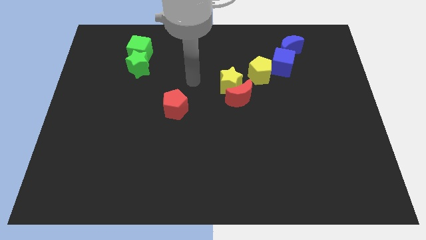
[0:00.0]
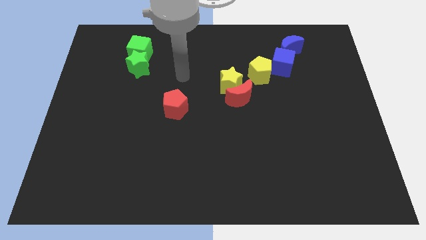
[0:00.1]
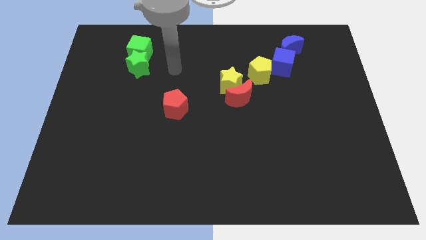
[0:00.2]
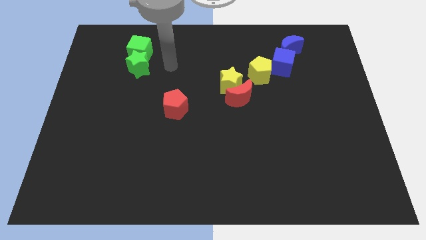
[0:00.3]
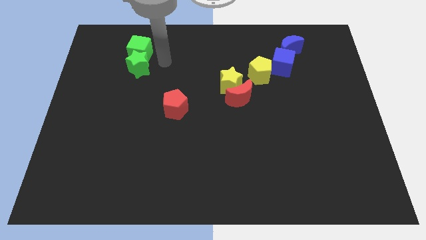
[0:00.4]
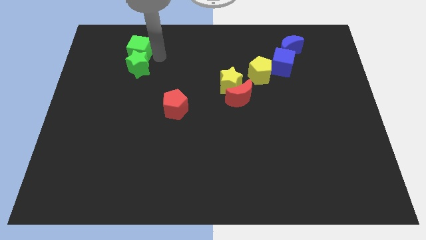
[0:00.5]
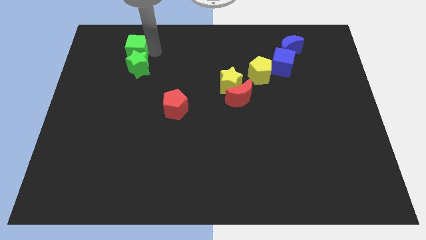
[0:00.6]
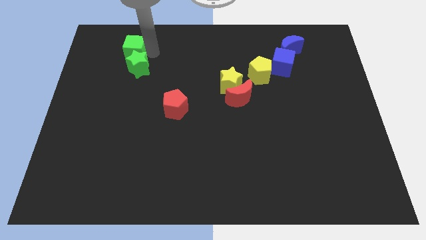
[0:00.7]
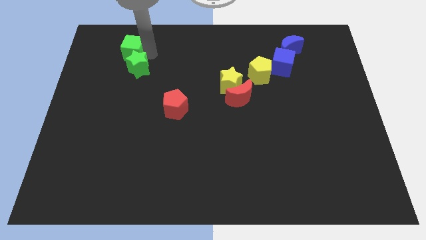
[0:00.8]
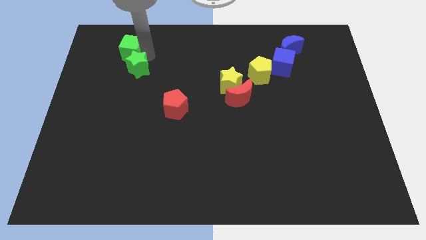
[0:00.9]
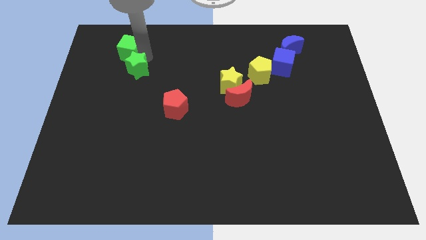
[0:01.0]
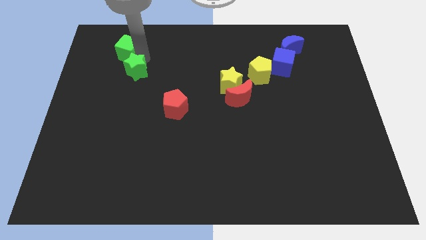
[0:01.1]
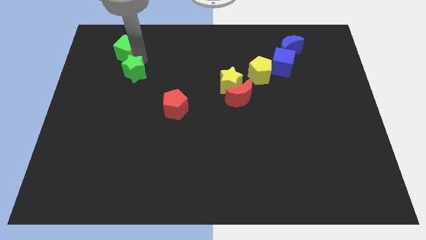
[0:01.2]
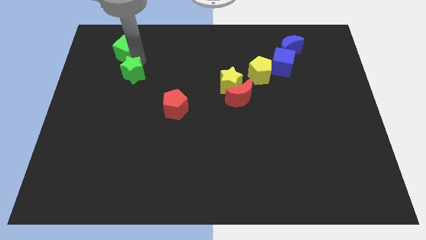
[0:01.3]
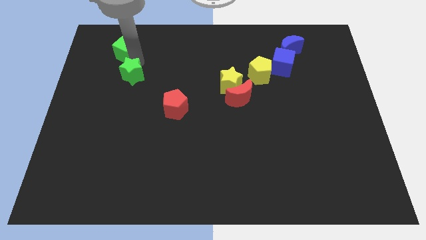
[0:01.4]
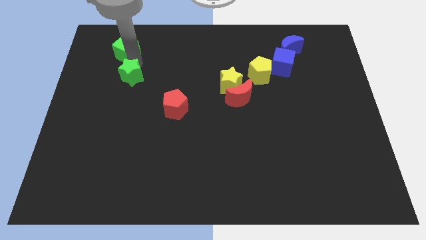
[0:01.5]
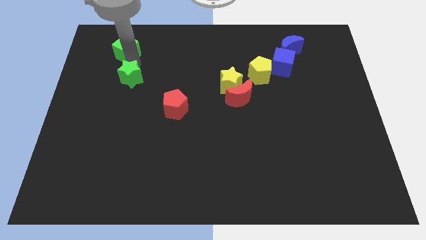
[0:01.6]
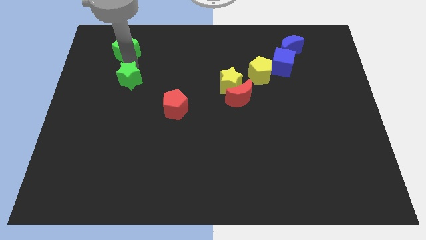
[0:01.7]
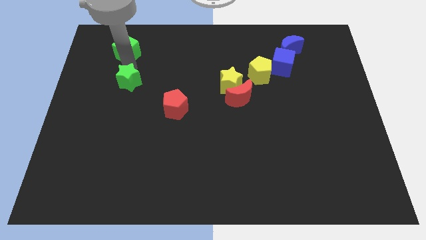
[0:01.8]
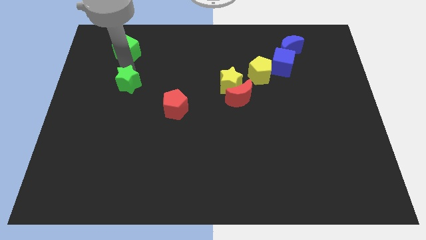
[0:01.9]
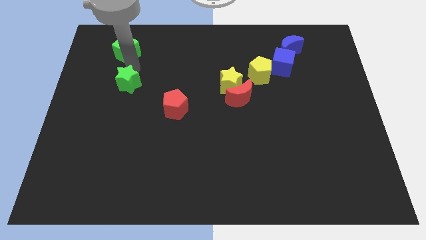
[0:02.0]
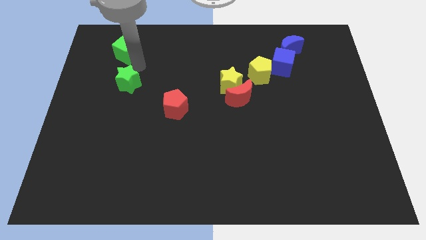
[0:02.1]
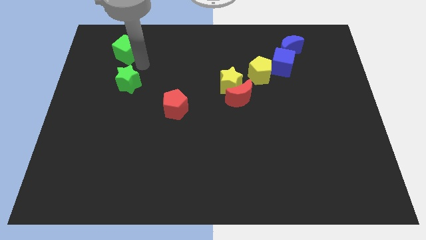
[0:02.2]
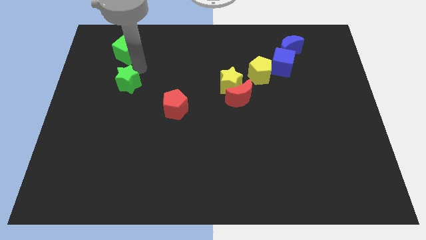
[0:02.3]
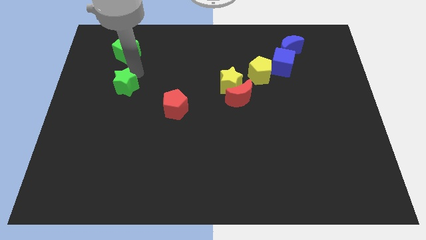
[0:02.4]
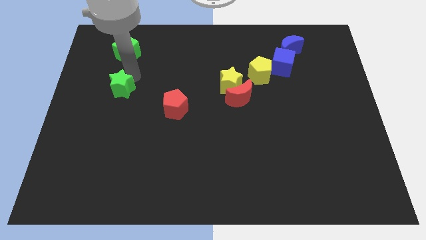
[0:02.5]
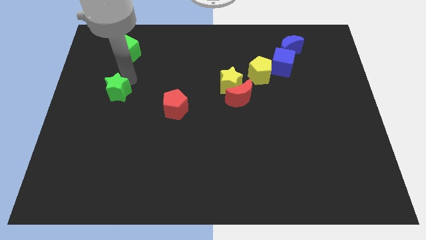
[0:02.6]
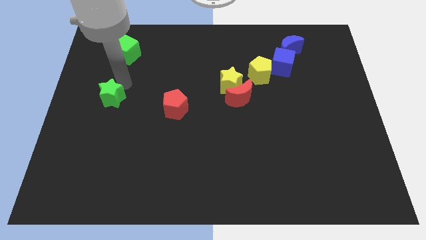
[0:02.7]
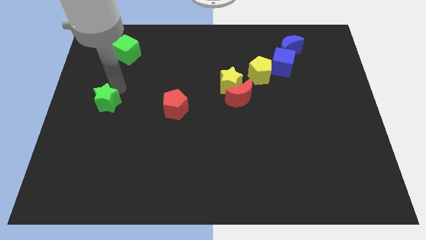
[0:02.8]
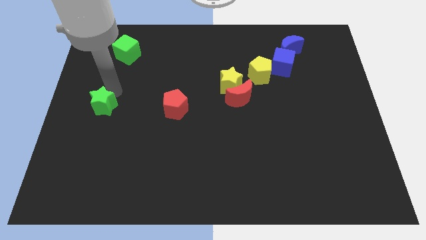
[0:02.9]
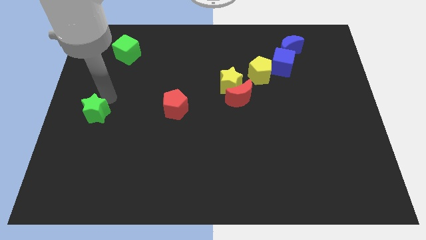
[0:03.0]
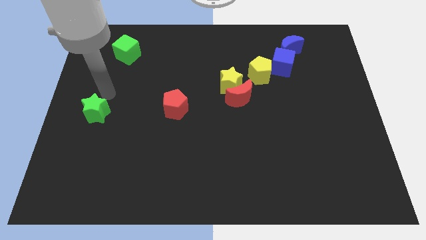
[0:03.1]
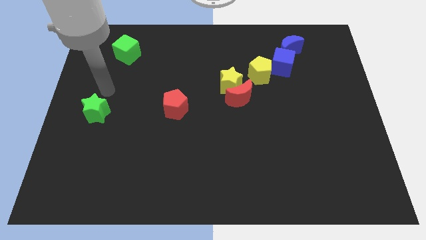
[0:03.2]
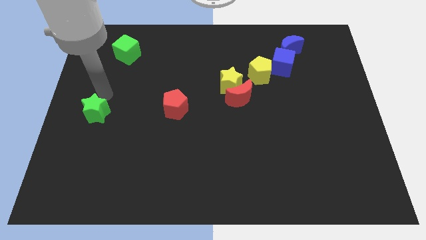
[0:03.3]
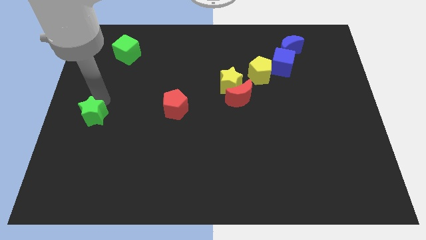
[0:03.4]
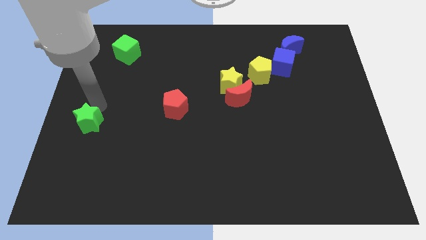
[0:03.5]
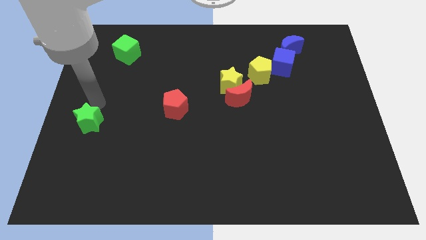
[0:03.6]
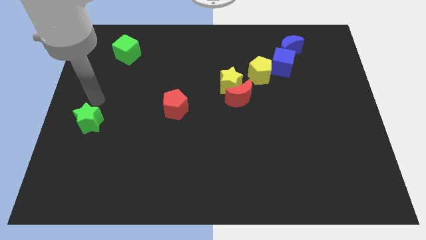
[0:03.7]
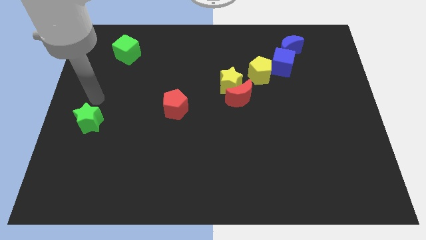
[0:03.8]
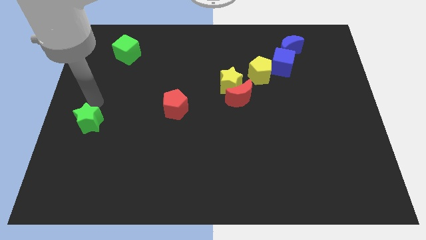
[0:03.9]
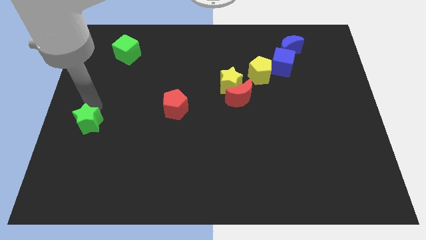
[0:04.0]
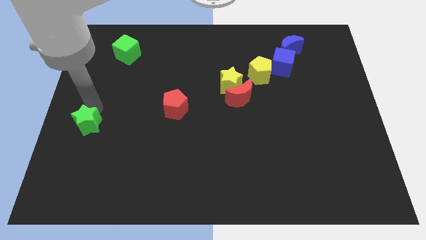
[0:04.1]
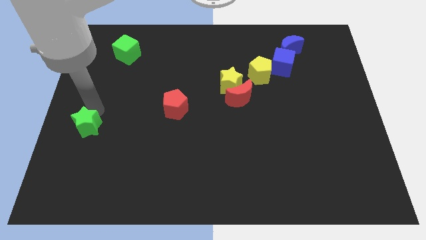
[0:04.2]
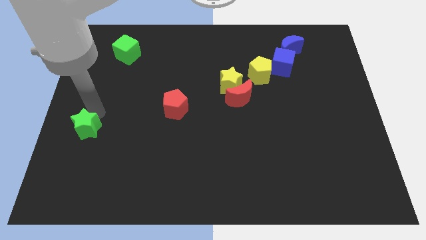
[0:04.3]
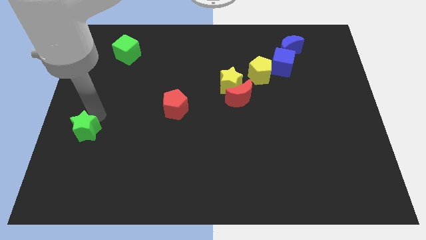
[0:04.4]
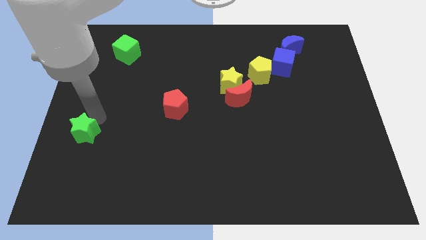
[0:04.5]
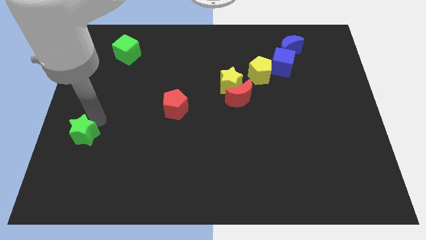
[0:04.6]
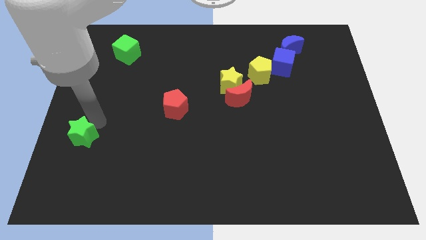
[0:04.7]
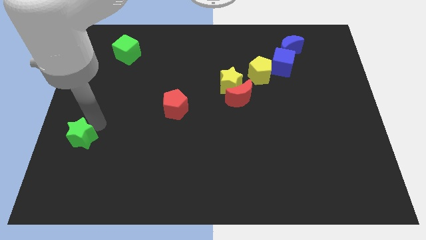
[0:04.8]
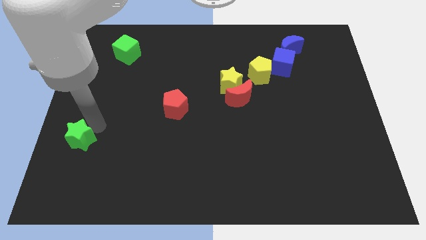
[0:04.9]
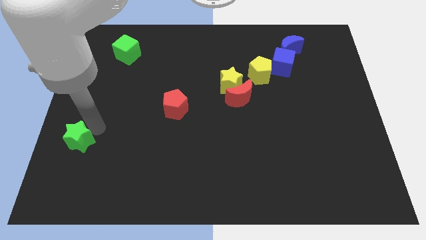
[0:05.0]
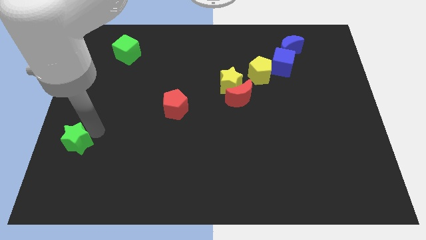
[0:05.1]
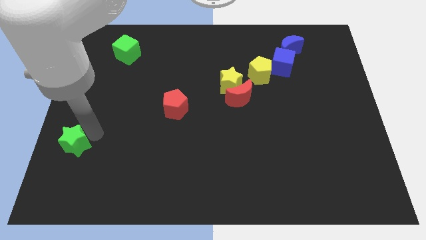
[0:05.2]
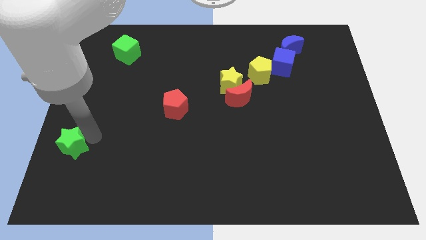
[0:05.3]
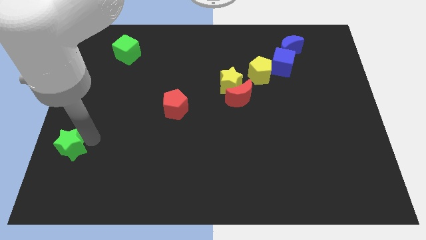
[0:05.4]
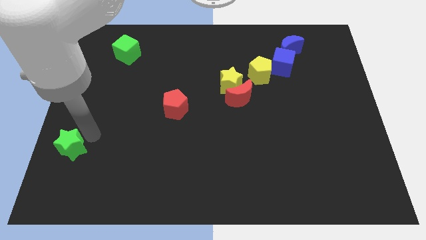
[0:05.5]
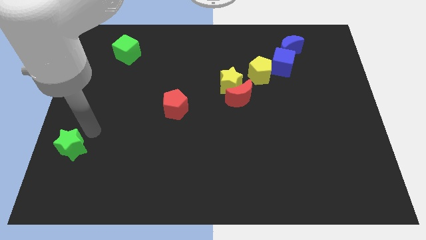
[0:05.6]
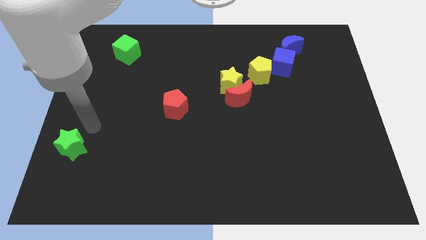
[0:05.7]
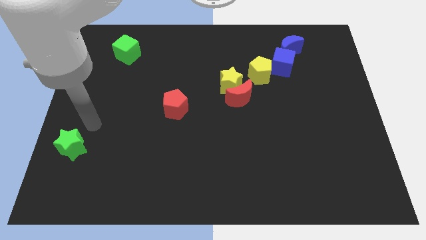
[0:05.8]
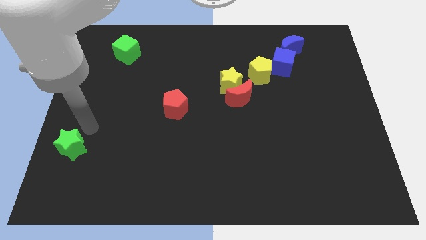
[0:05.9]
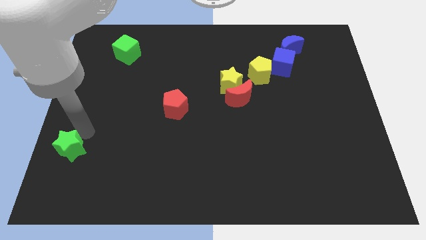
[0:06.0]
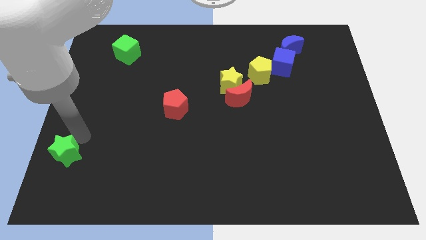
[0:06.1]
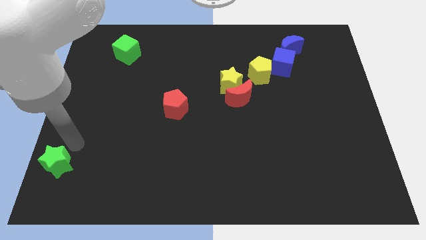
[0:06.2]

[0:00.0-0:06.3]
move the green star to the bottom left corner
